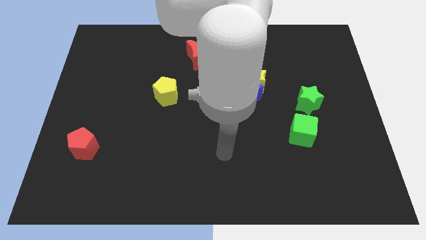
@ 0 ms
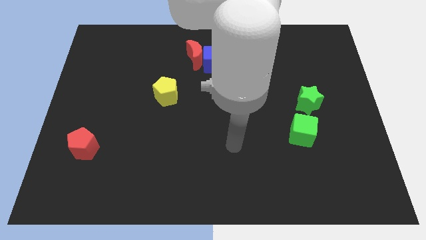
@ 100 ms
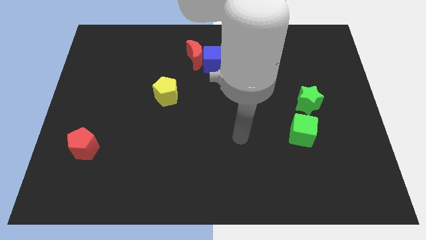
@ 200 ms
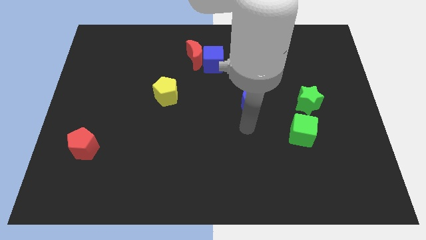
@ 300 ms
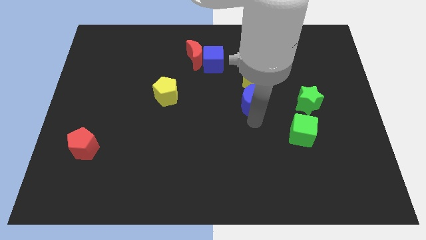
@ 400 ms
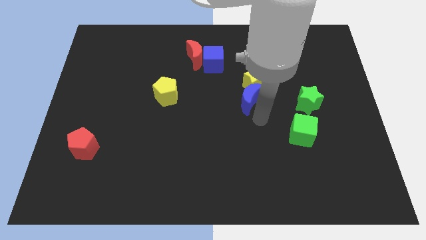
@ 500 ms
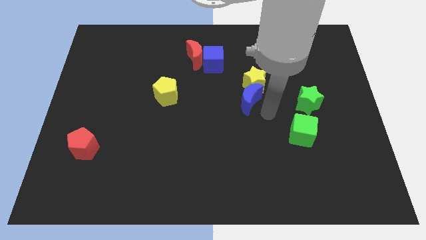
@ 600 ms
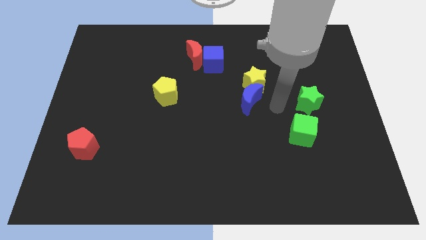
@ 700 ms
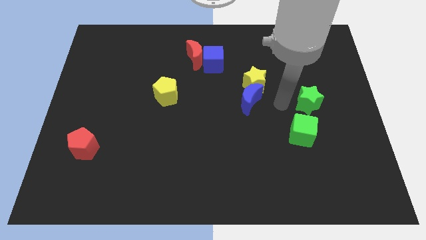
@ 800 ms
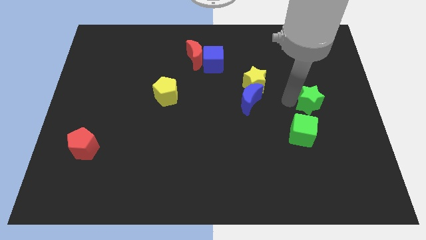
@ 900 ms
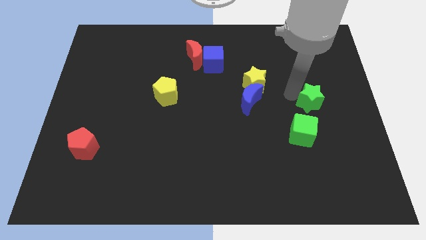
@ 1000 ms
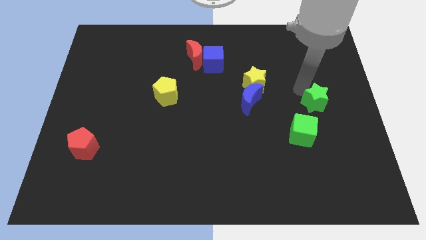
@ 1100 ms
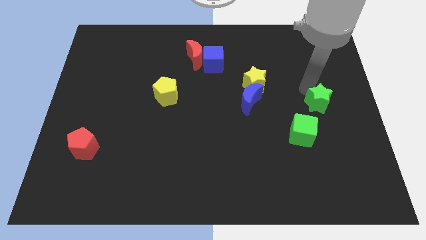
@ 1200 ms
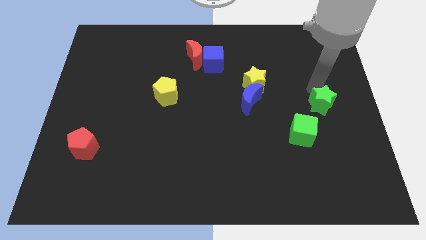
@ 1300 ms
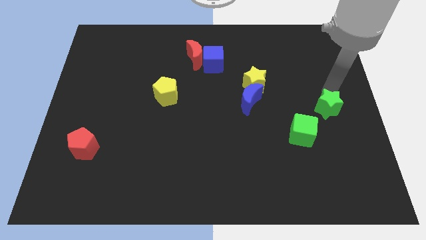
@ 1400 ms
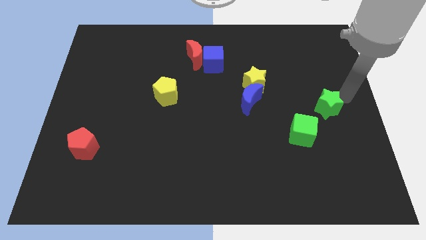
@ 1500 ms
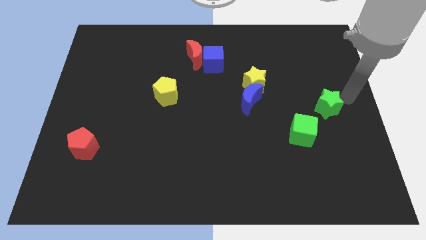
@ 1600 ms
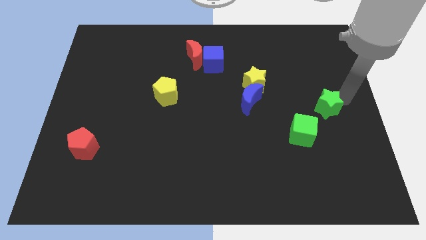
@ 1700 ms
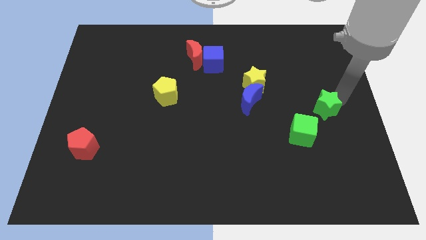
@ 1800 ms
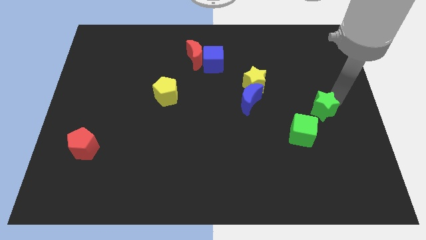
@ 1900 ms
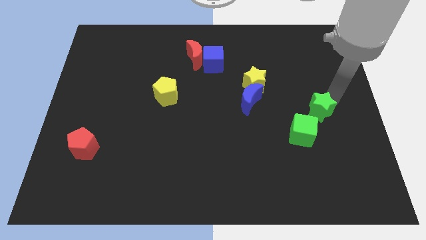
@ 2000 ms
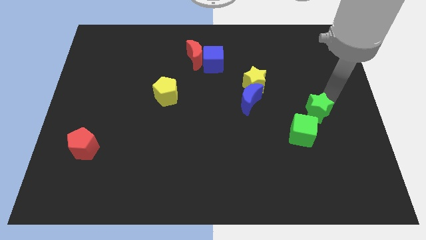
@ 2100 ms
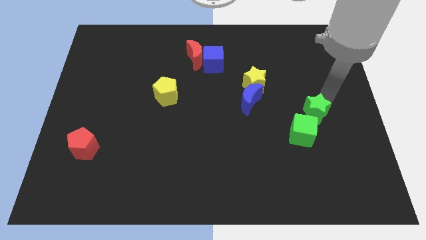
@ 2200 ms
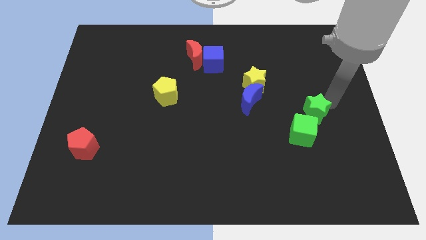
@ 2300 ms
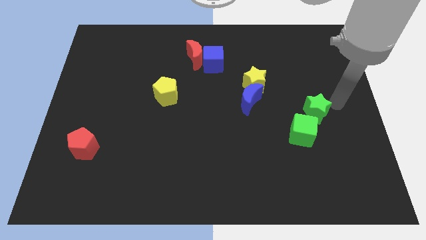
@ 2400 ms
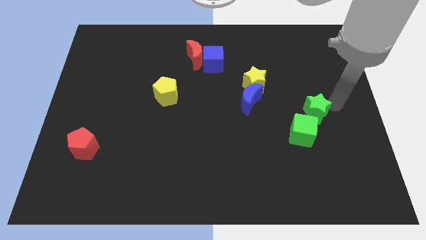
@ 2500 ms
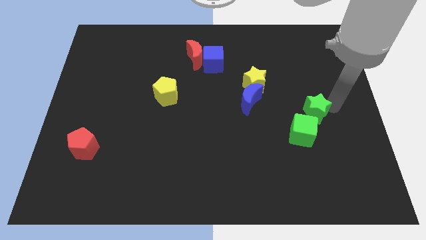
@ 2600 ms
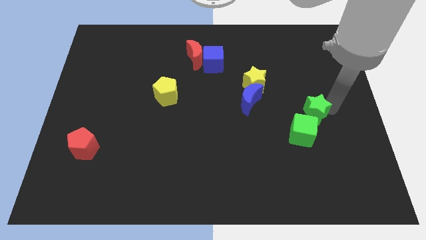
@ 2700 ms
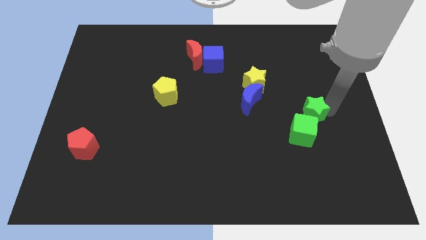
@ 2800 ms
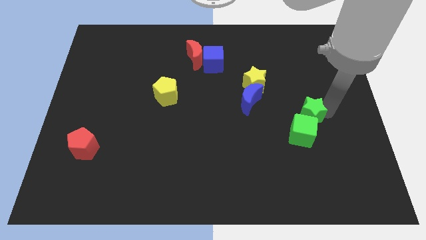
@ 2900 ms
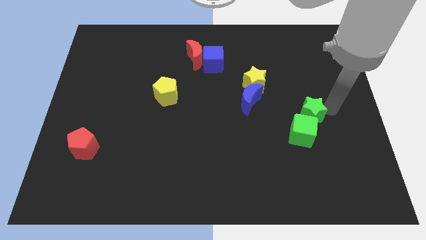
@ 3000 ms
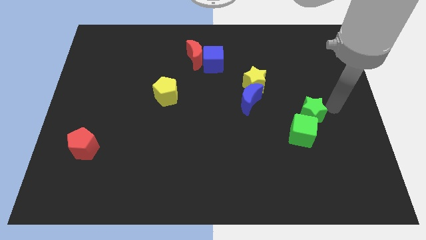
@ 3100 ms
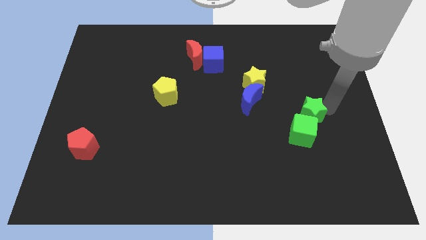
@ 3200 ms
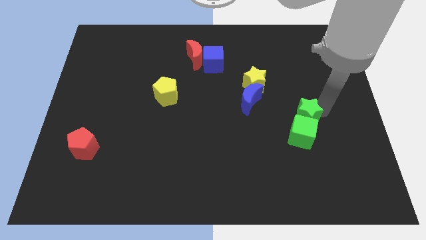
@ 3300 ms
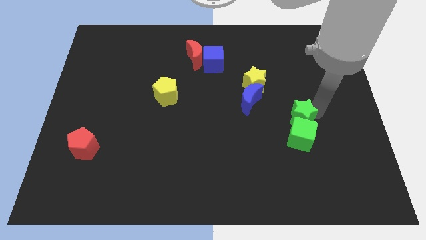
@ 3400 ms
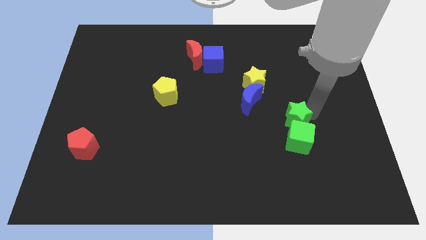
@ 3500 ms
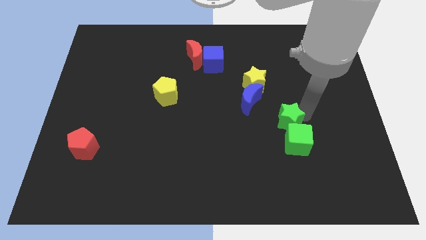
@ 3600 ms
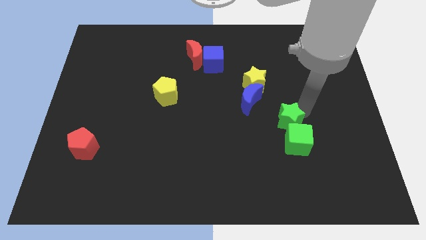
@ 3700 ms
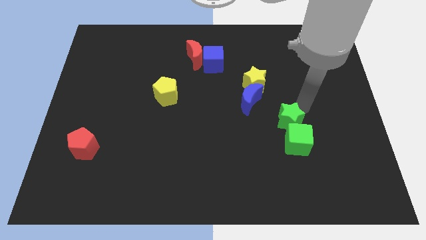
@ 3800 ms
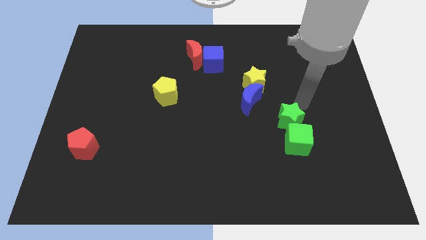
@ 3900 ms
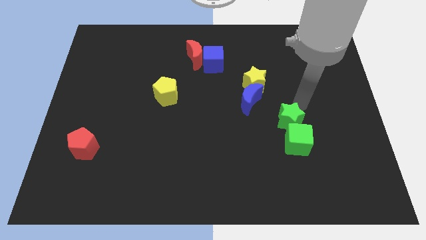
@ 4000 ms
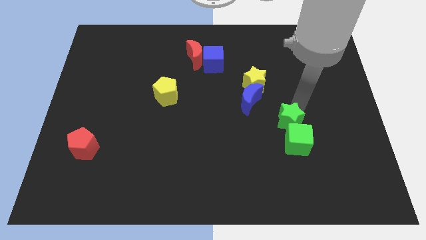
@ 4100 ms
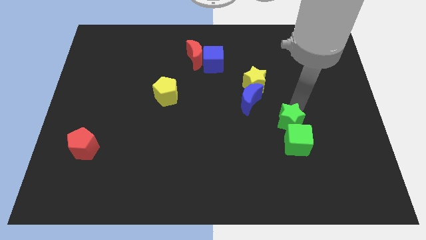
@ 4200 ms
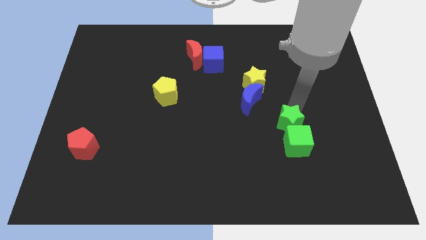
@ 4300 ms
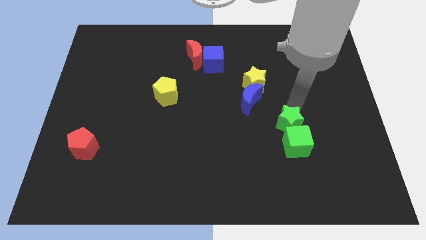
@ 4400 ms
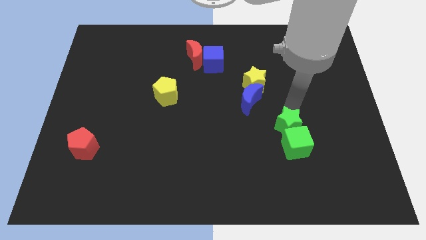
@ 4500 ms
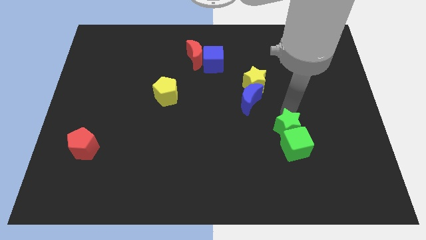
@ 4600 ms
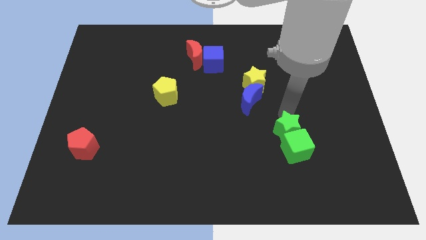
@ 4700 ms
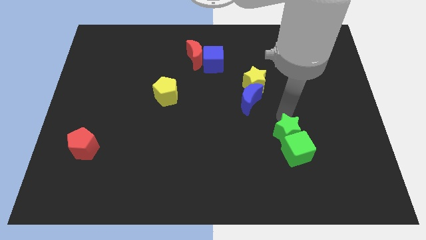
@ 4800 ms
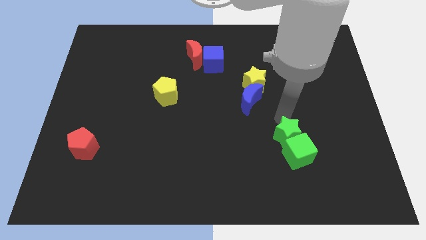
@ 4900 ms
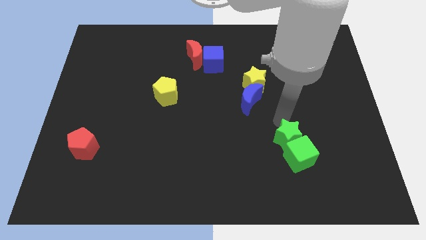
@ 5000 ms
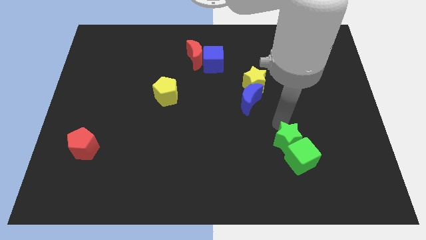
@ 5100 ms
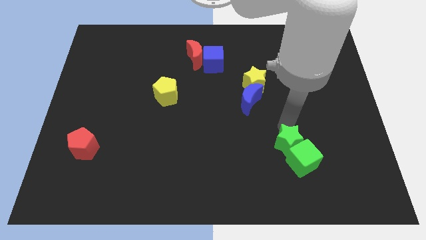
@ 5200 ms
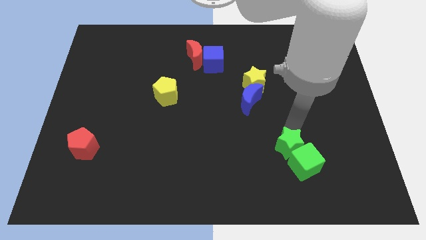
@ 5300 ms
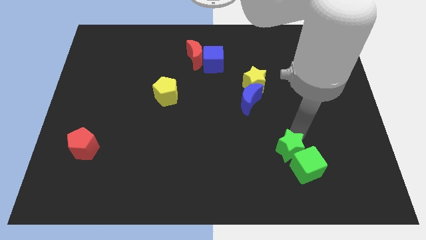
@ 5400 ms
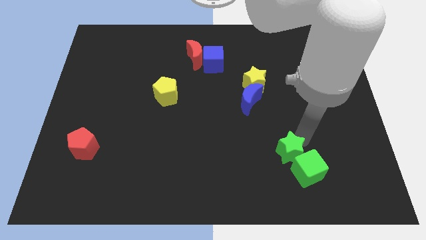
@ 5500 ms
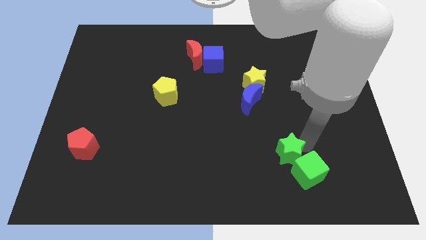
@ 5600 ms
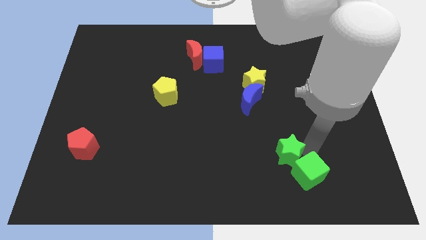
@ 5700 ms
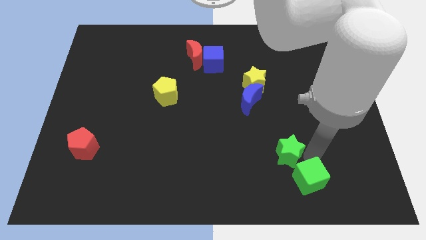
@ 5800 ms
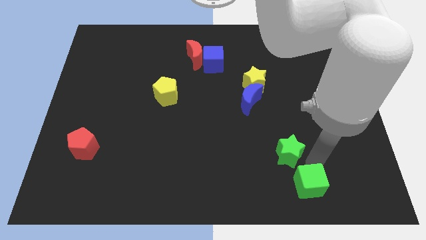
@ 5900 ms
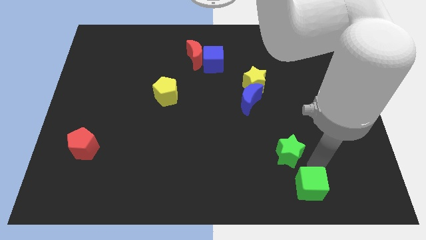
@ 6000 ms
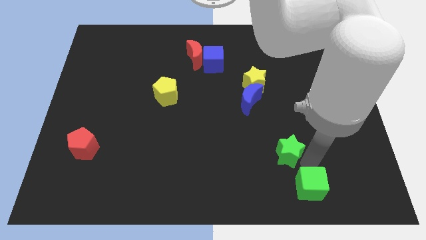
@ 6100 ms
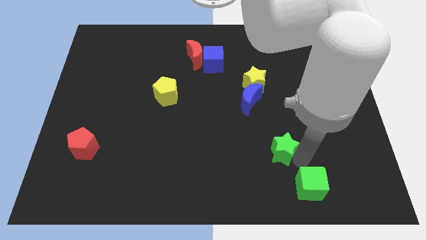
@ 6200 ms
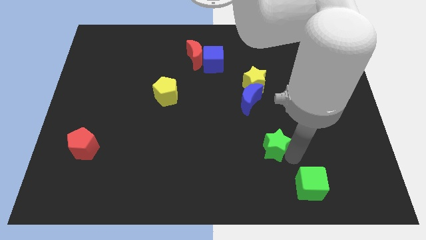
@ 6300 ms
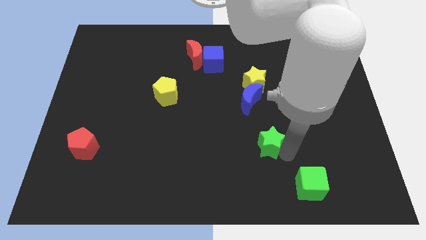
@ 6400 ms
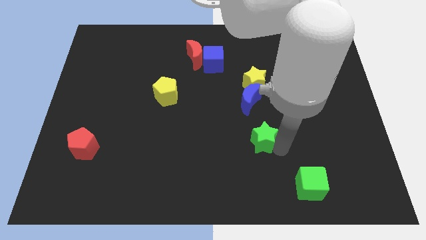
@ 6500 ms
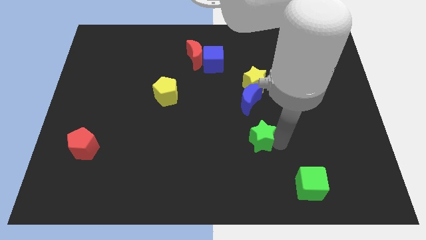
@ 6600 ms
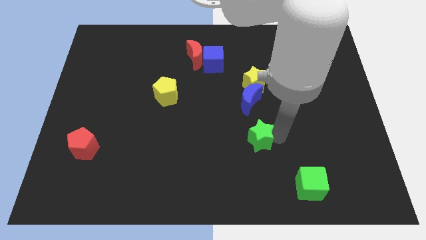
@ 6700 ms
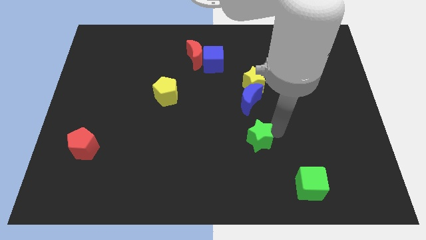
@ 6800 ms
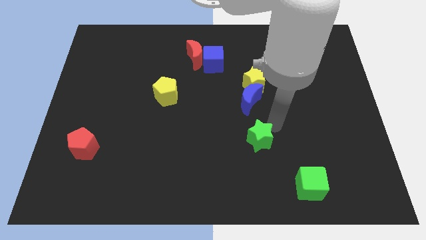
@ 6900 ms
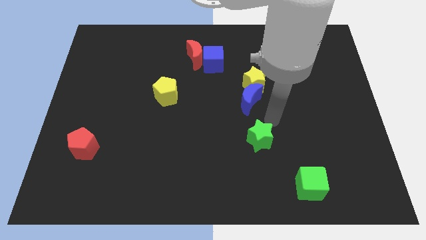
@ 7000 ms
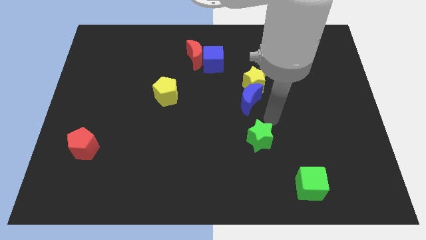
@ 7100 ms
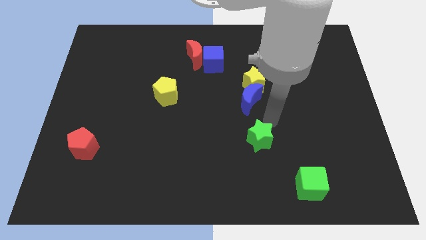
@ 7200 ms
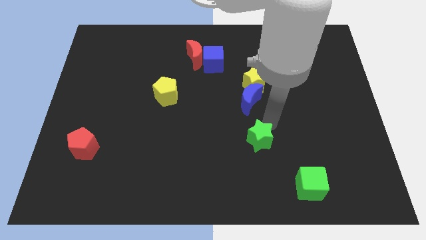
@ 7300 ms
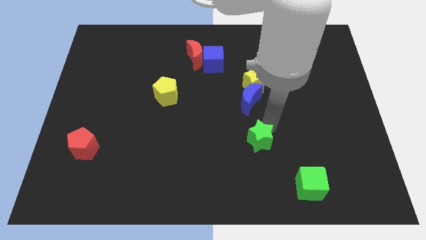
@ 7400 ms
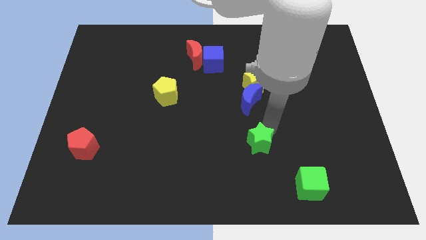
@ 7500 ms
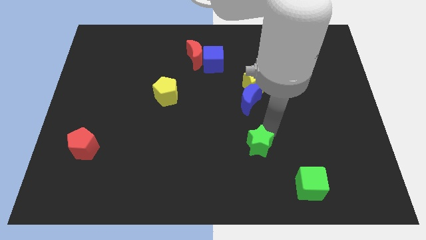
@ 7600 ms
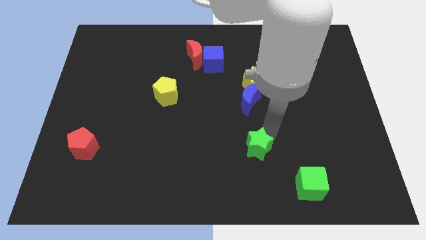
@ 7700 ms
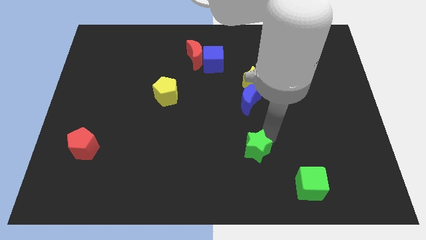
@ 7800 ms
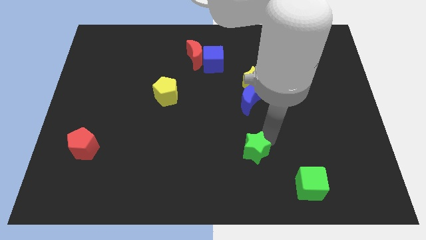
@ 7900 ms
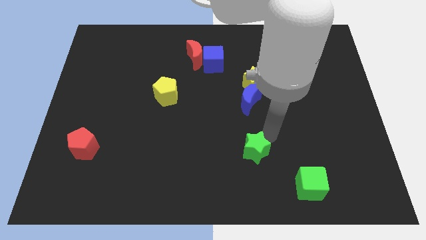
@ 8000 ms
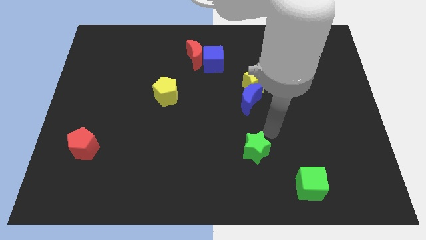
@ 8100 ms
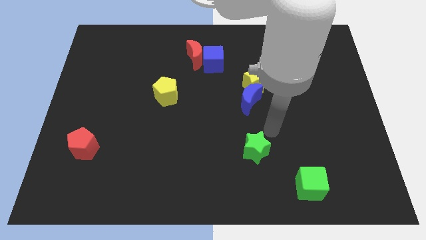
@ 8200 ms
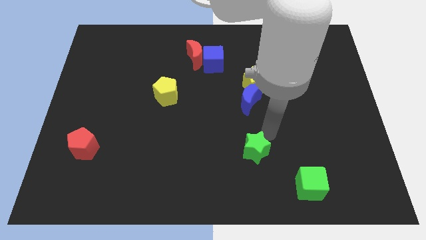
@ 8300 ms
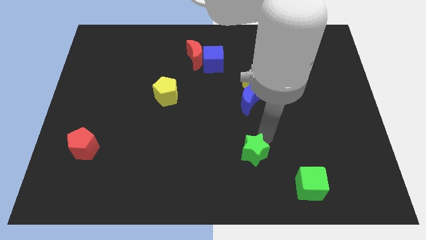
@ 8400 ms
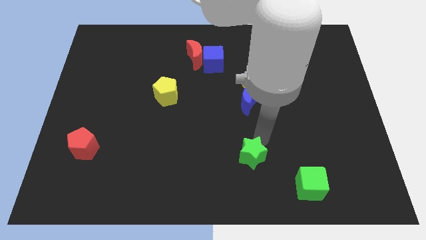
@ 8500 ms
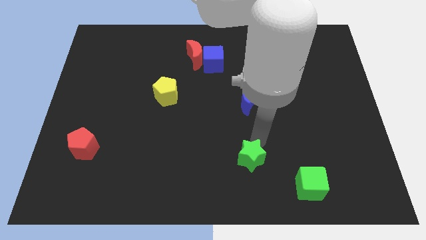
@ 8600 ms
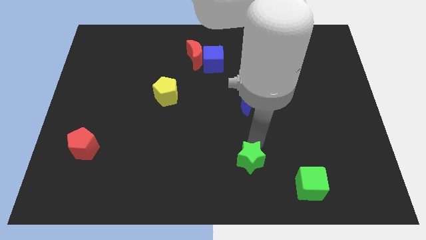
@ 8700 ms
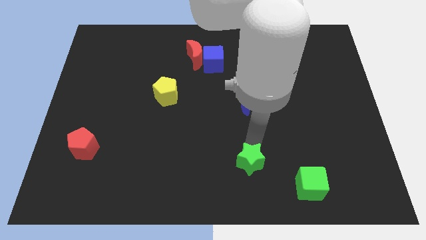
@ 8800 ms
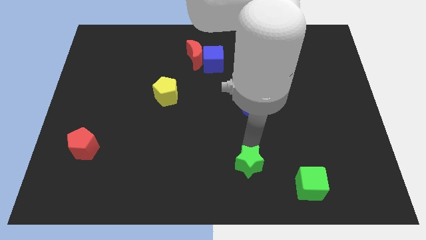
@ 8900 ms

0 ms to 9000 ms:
put the green star to the bottom side
